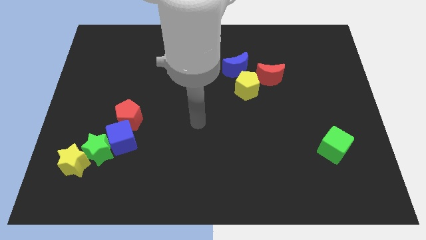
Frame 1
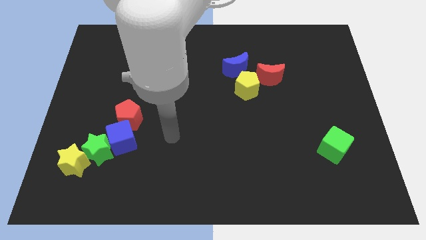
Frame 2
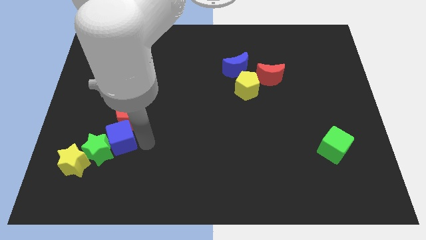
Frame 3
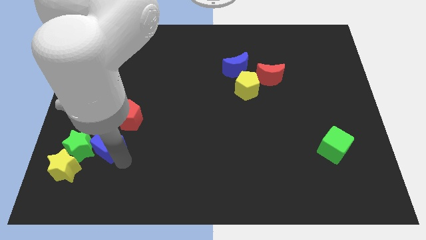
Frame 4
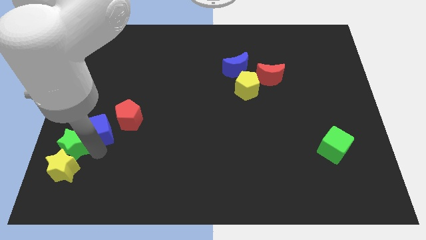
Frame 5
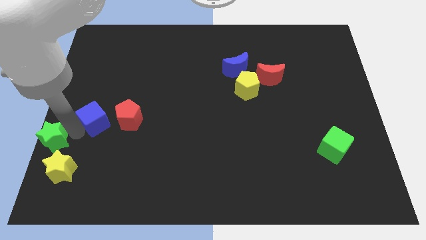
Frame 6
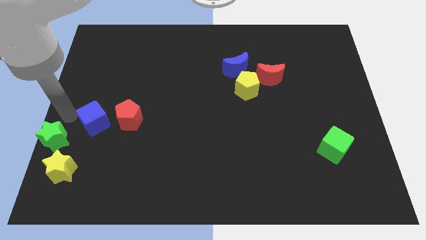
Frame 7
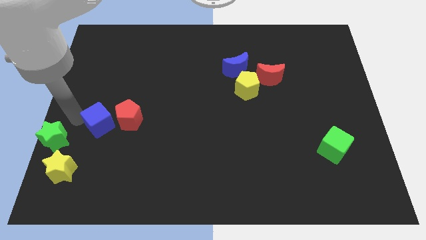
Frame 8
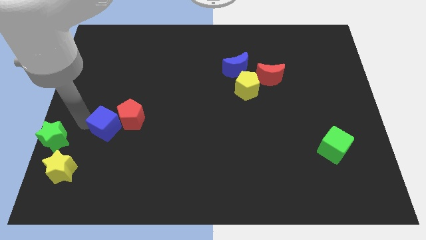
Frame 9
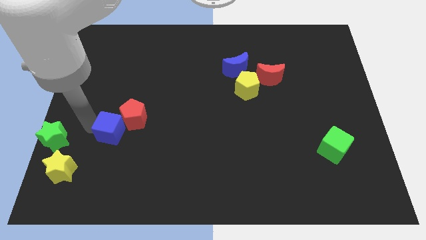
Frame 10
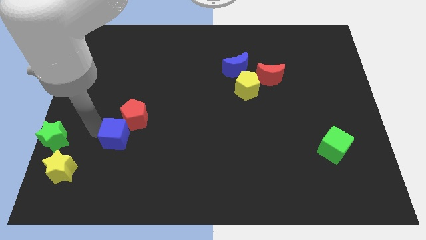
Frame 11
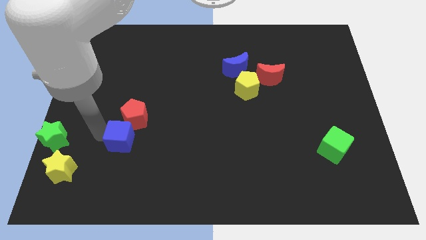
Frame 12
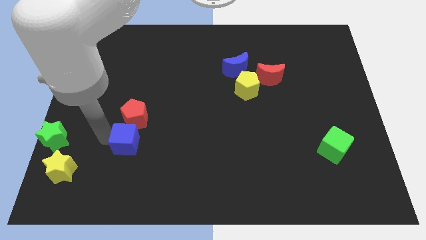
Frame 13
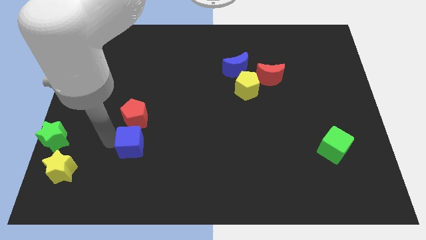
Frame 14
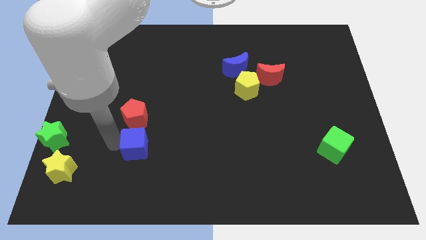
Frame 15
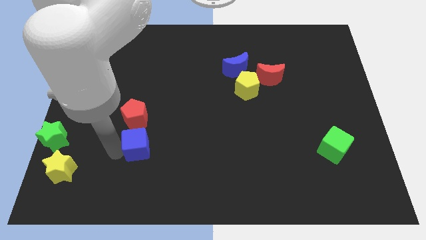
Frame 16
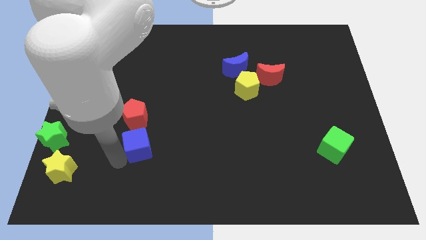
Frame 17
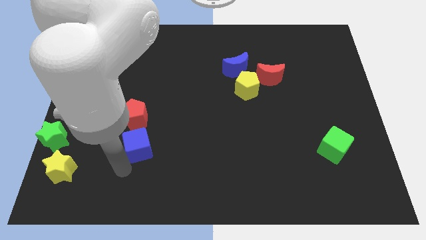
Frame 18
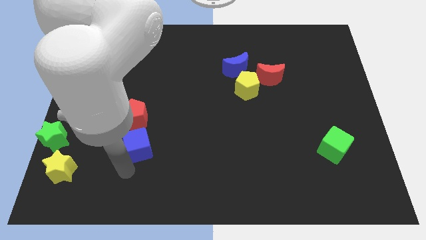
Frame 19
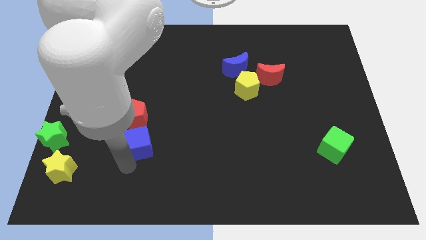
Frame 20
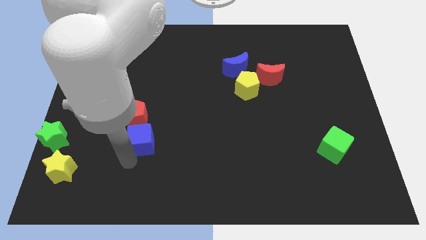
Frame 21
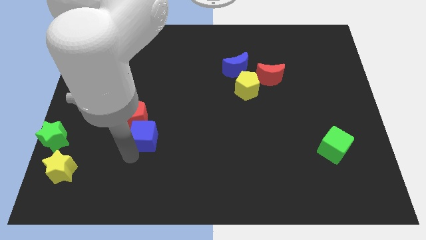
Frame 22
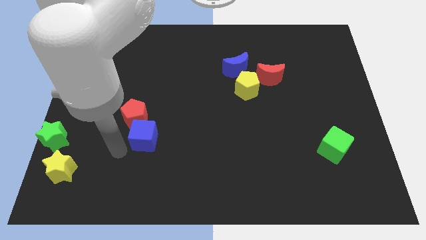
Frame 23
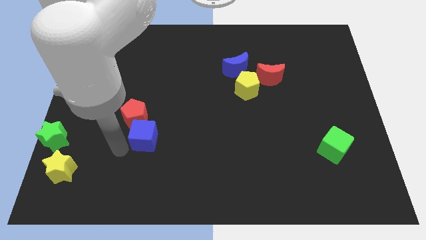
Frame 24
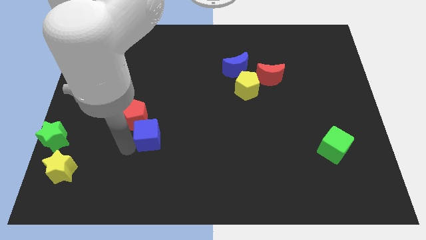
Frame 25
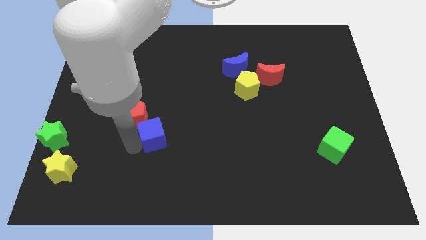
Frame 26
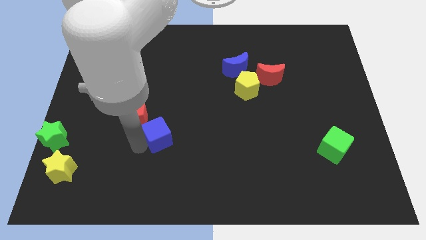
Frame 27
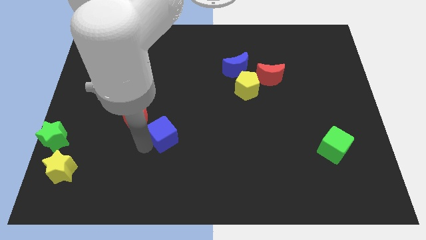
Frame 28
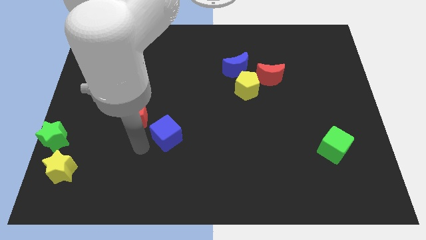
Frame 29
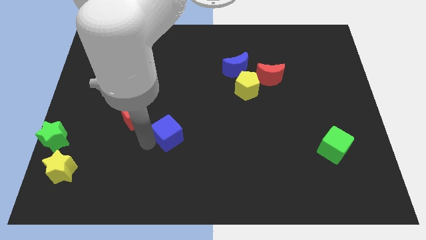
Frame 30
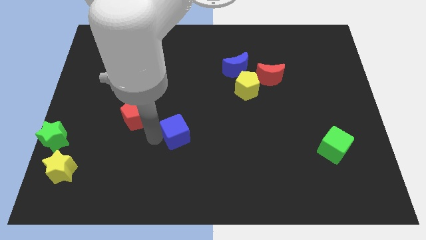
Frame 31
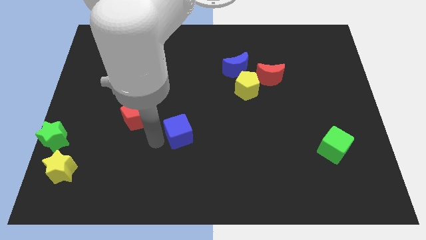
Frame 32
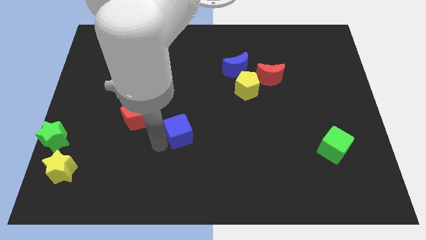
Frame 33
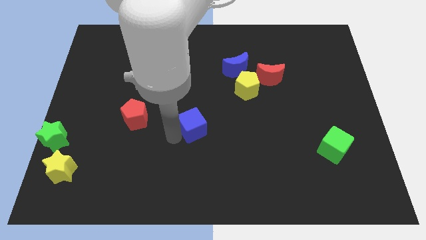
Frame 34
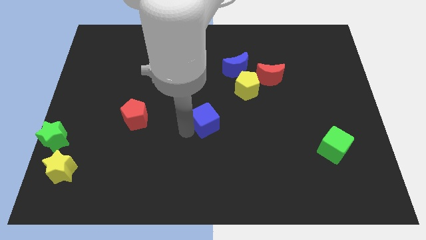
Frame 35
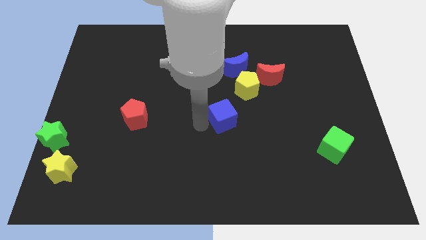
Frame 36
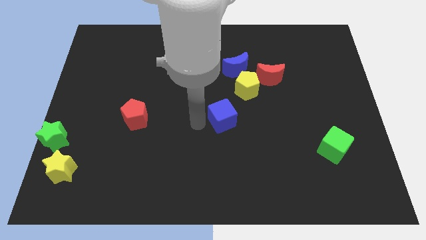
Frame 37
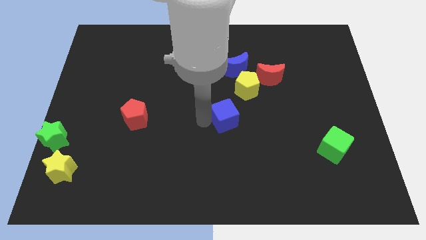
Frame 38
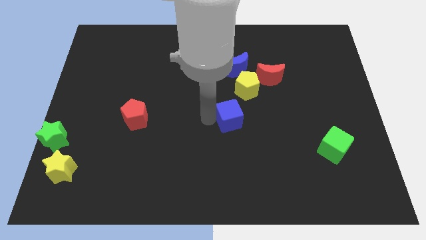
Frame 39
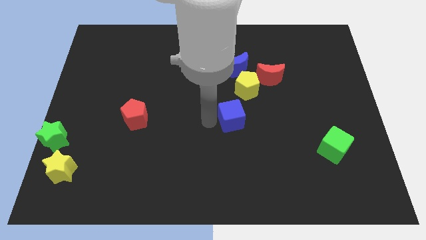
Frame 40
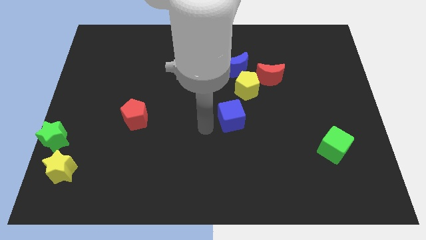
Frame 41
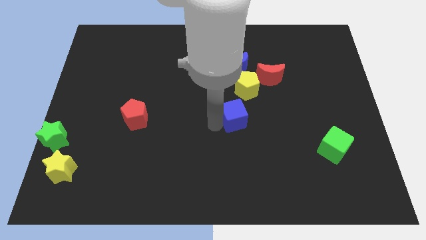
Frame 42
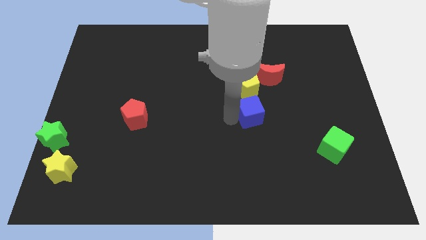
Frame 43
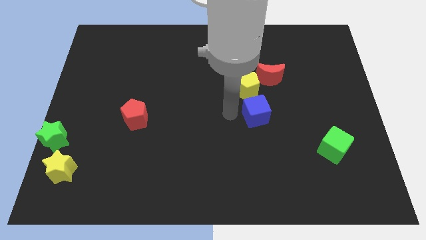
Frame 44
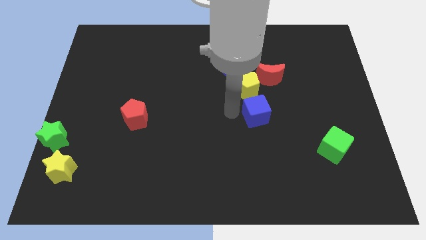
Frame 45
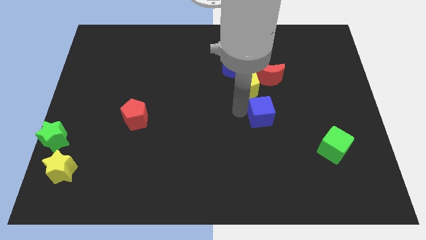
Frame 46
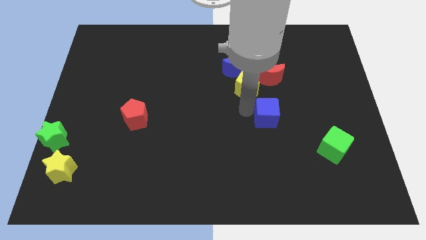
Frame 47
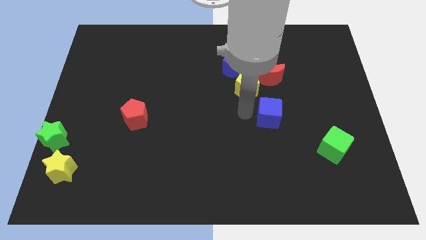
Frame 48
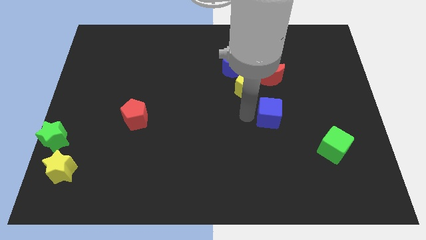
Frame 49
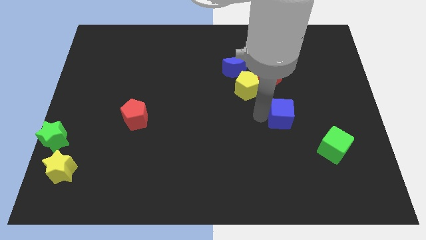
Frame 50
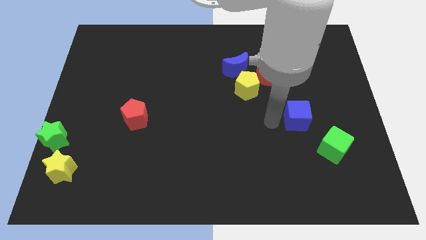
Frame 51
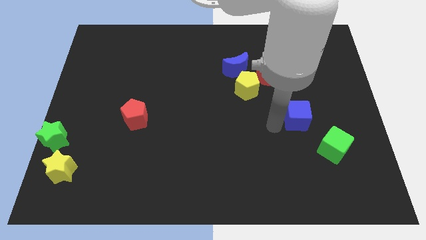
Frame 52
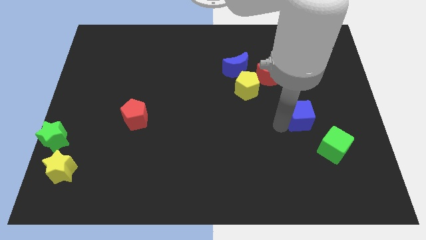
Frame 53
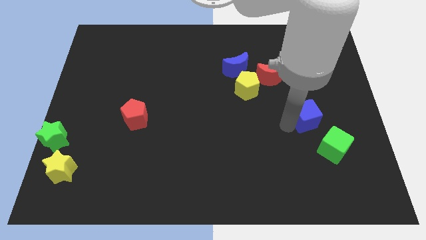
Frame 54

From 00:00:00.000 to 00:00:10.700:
slide the blue cube above the green cube

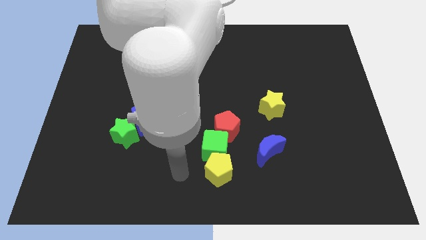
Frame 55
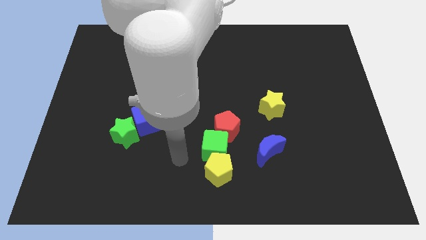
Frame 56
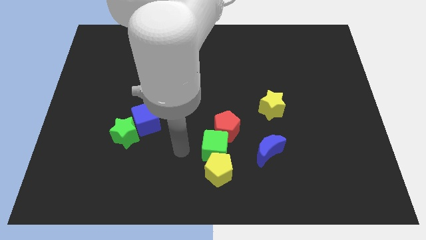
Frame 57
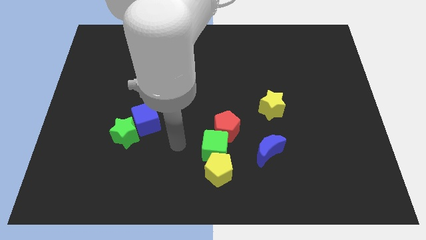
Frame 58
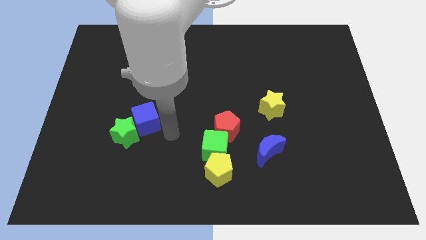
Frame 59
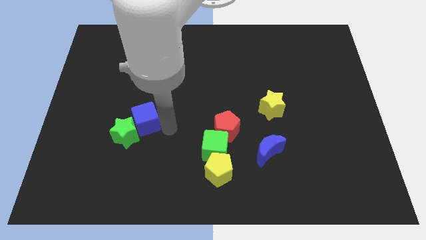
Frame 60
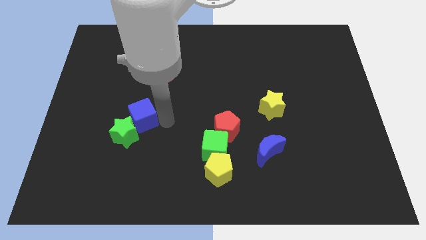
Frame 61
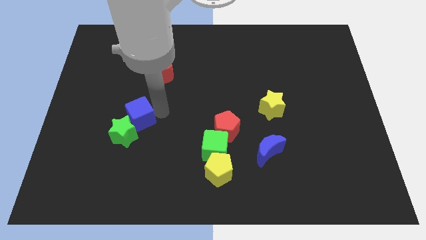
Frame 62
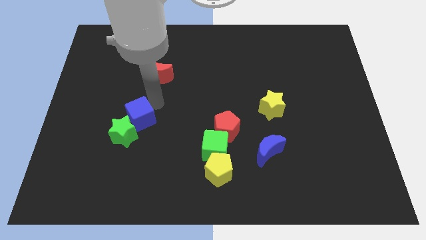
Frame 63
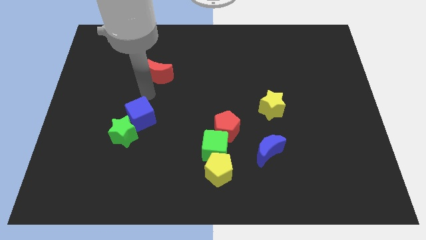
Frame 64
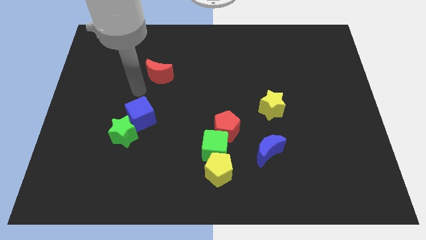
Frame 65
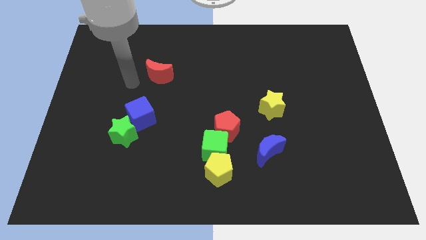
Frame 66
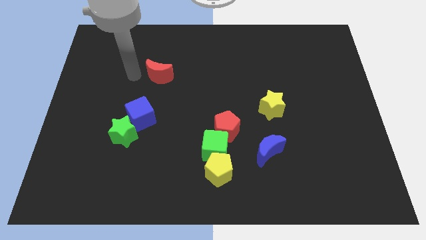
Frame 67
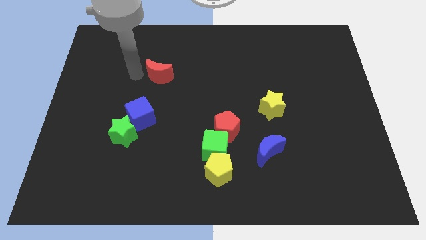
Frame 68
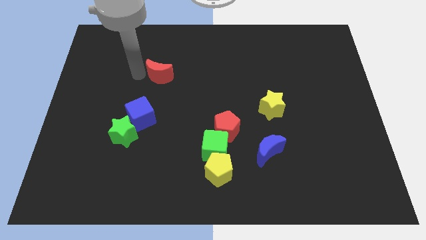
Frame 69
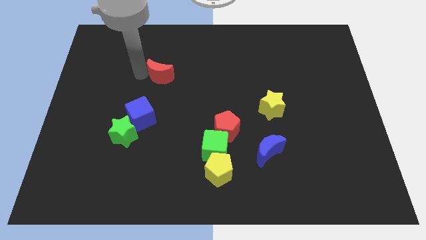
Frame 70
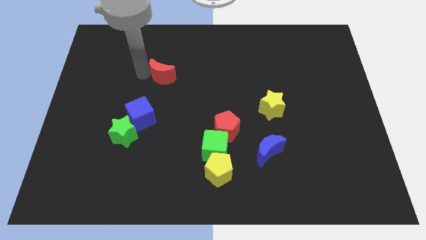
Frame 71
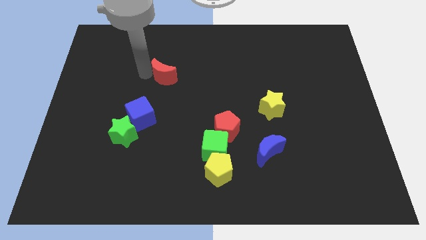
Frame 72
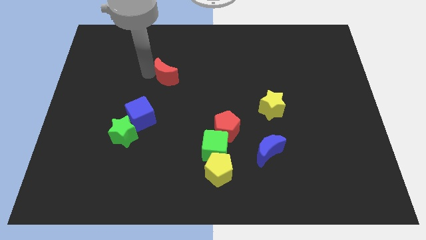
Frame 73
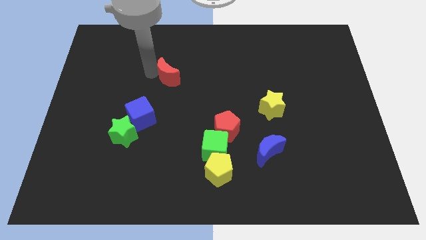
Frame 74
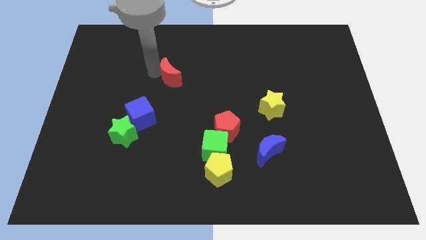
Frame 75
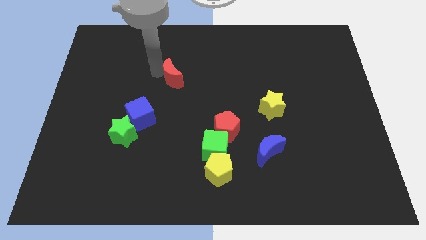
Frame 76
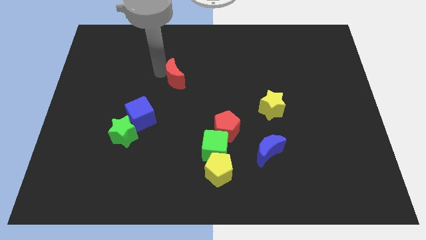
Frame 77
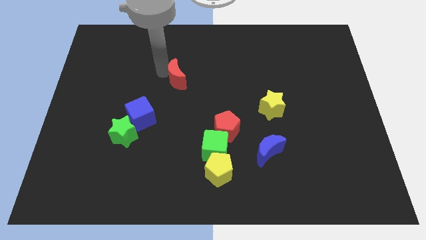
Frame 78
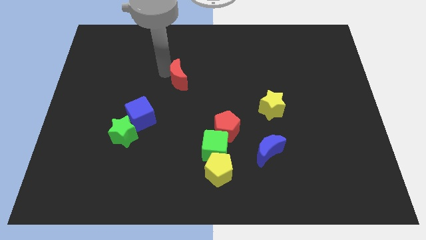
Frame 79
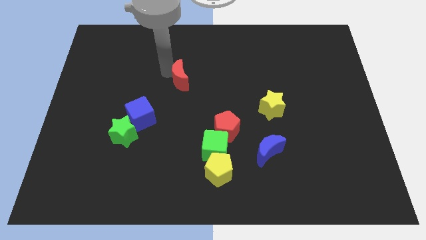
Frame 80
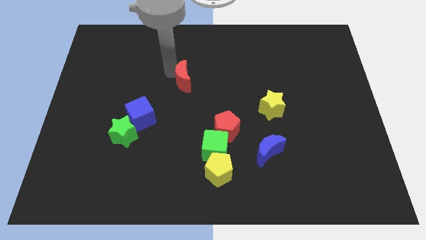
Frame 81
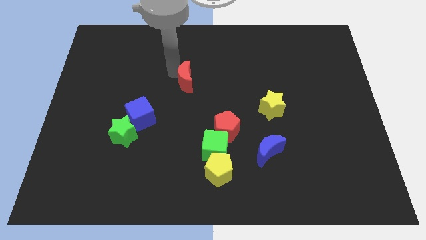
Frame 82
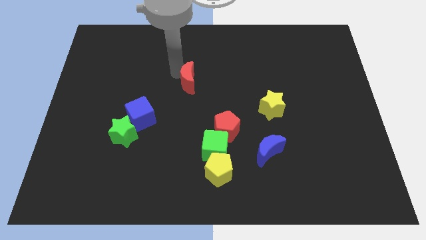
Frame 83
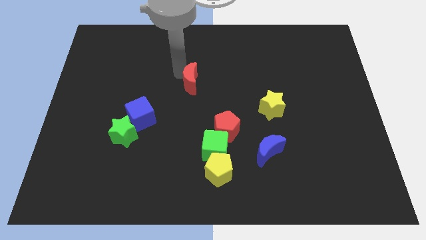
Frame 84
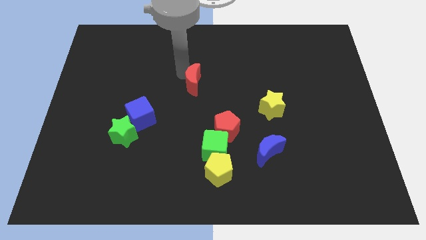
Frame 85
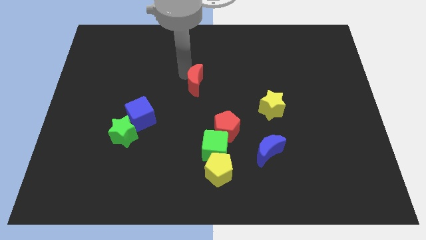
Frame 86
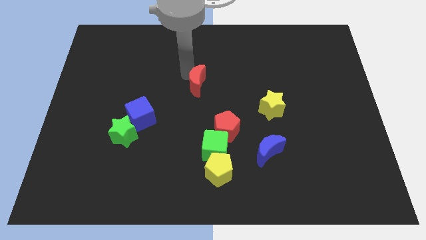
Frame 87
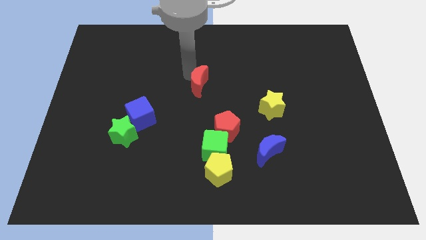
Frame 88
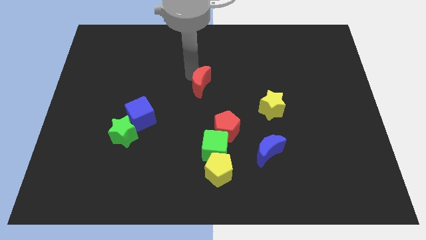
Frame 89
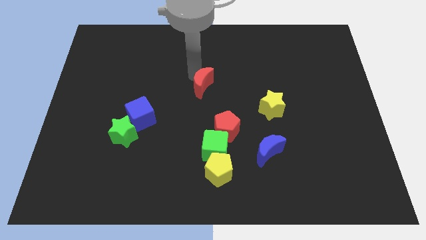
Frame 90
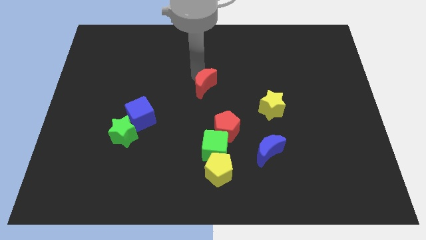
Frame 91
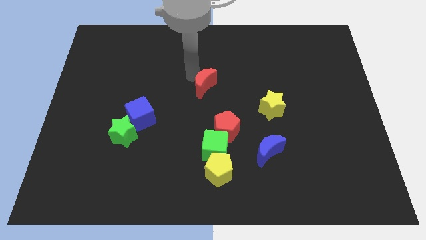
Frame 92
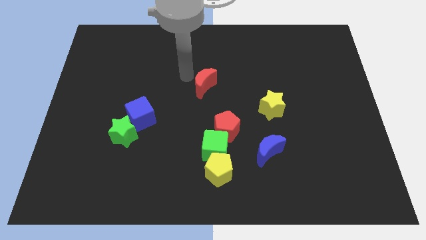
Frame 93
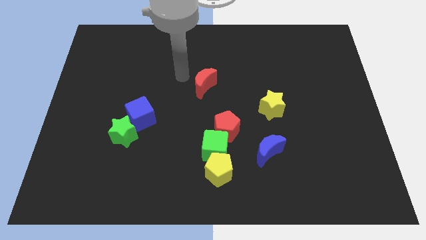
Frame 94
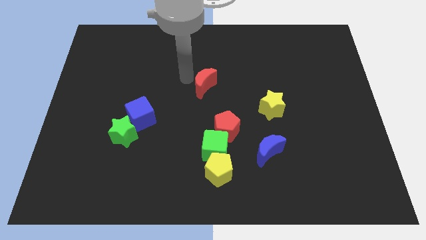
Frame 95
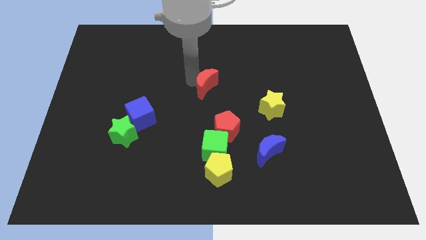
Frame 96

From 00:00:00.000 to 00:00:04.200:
move the red moon to the top of the red pentagon
